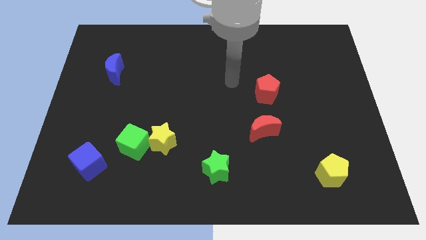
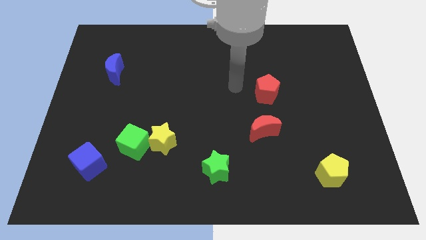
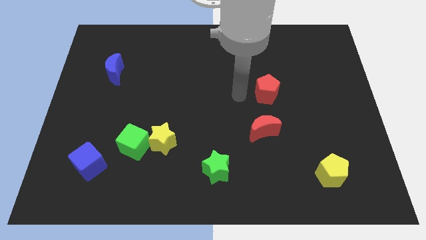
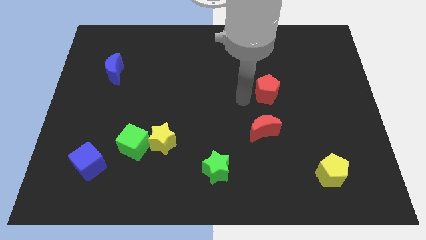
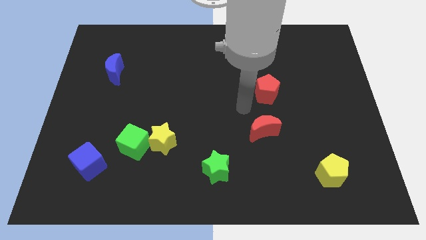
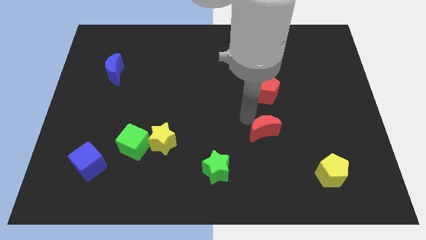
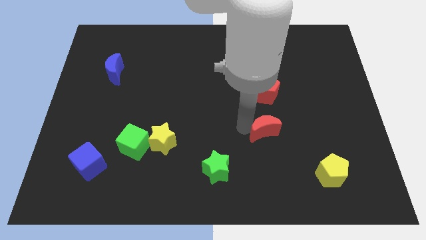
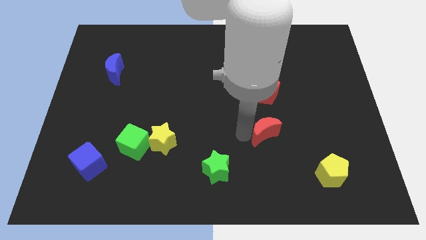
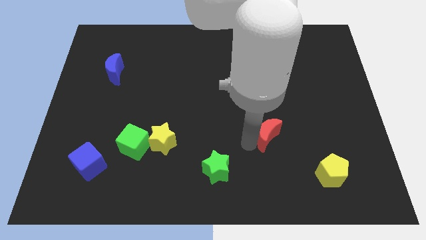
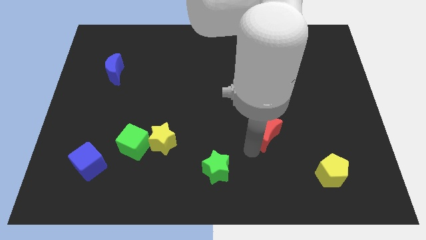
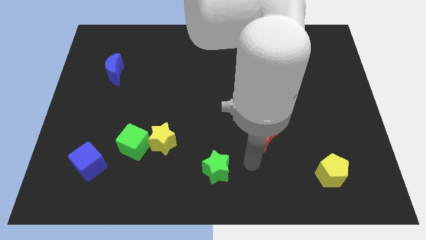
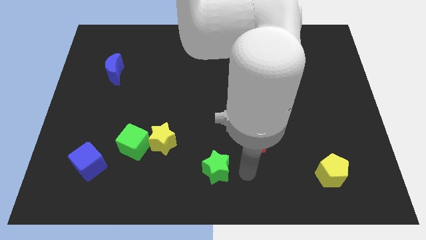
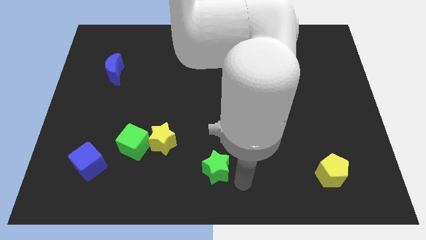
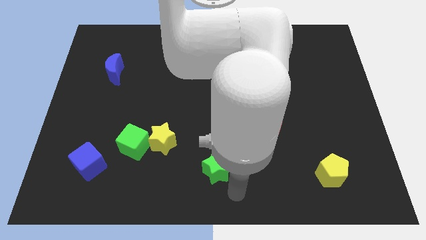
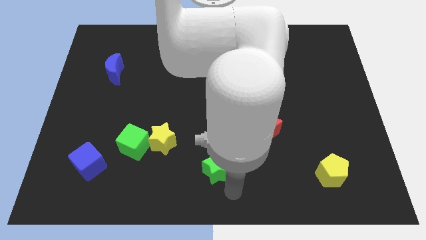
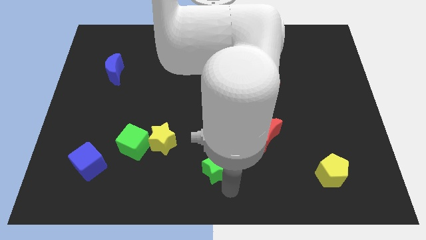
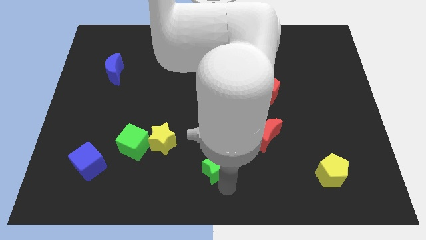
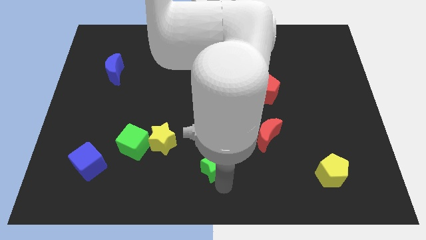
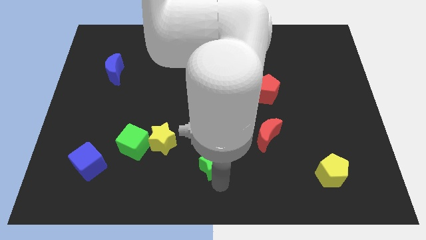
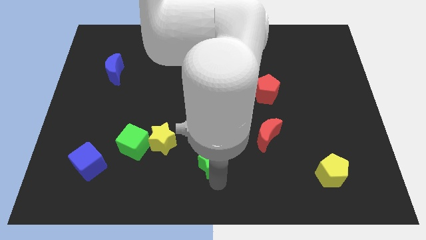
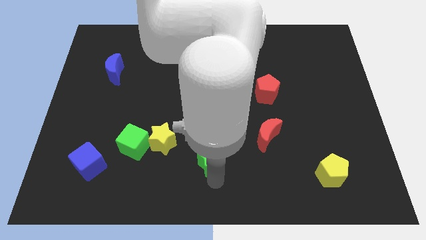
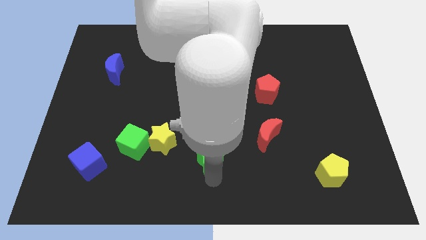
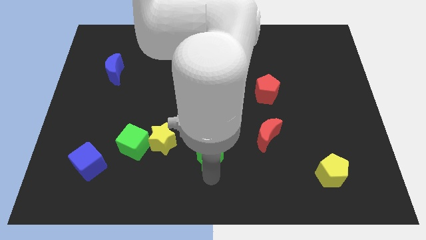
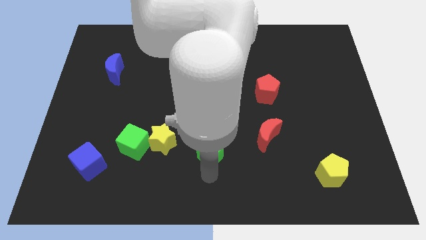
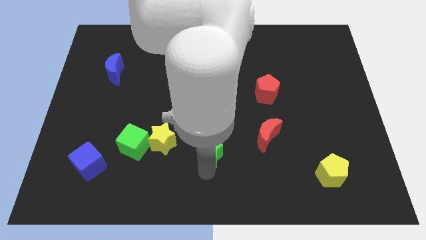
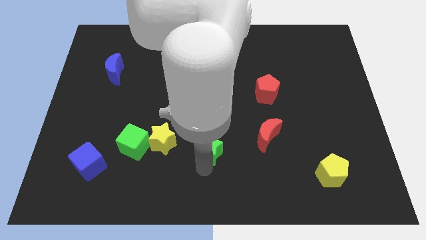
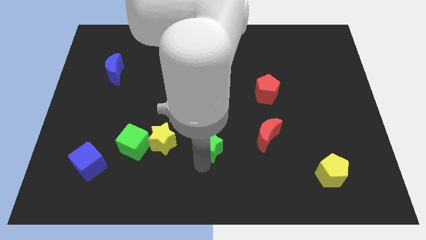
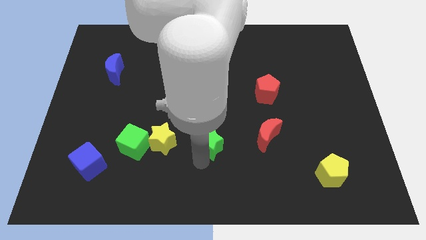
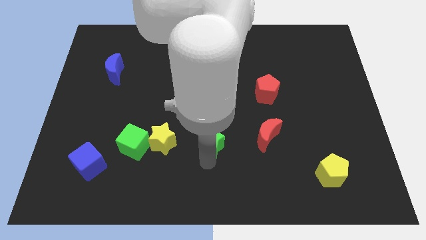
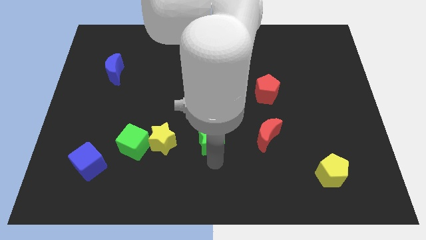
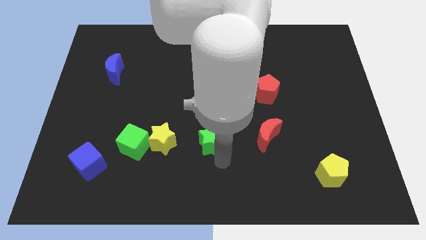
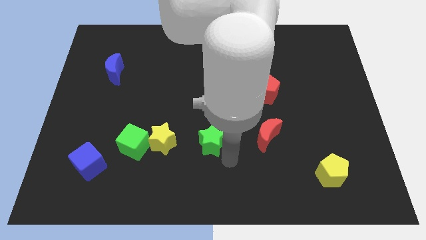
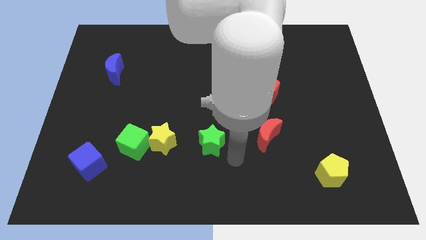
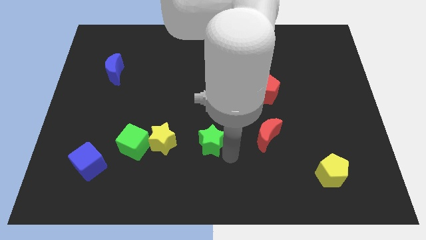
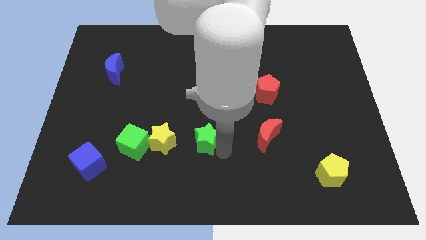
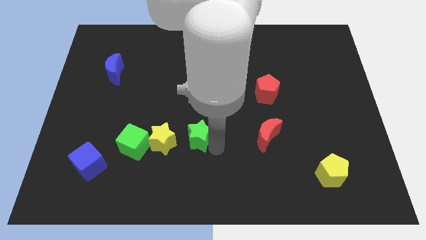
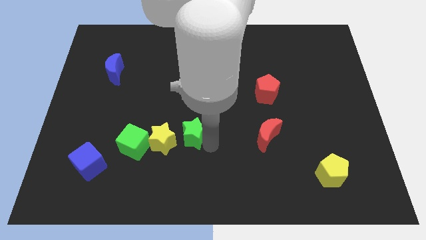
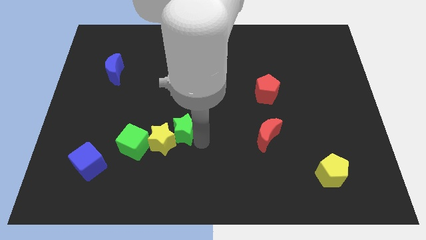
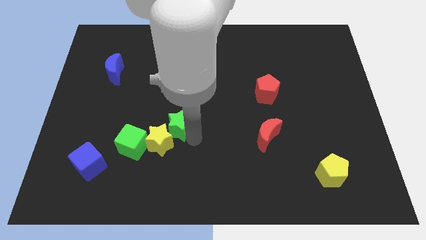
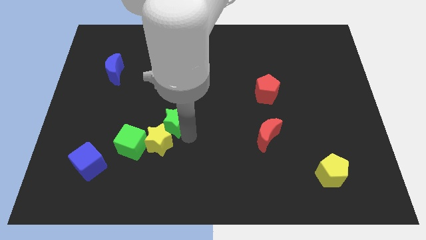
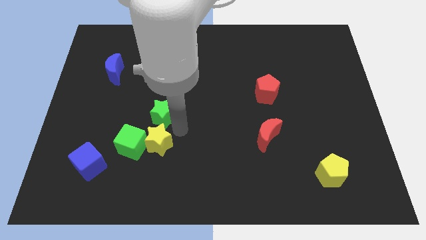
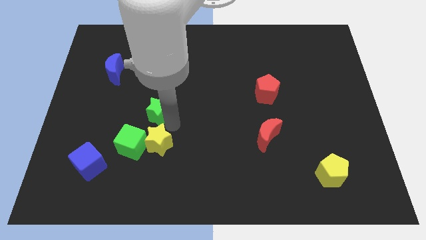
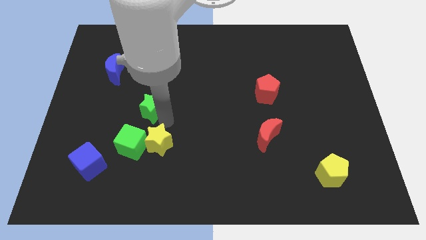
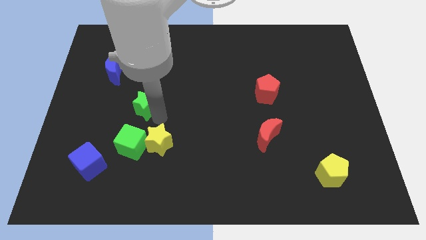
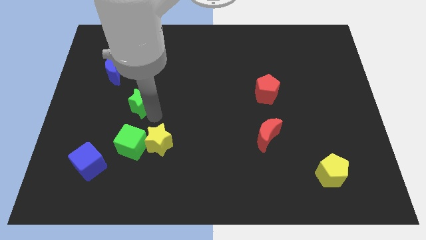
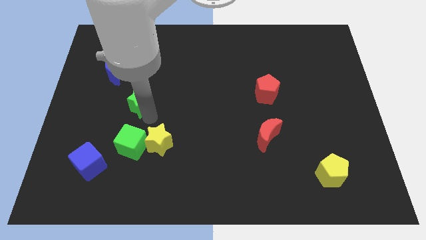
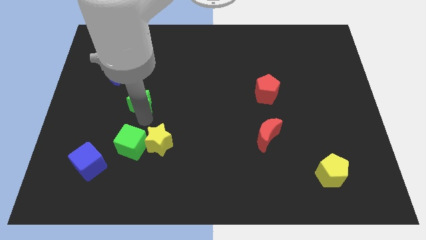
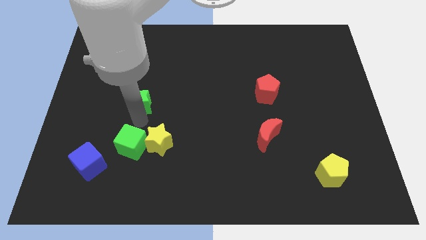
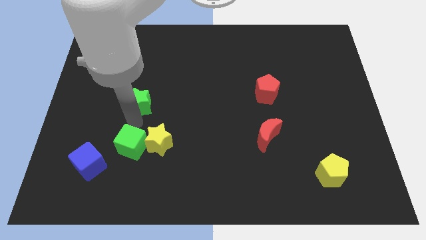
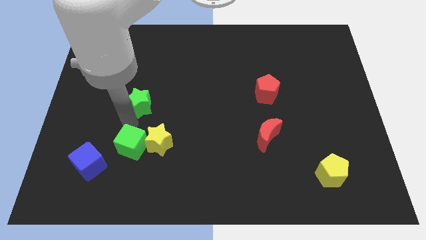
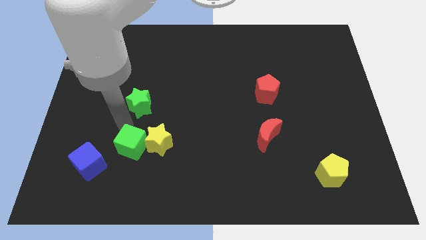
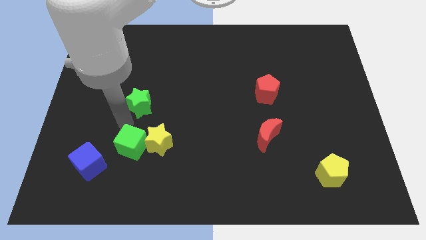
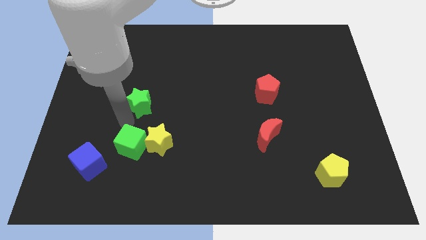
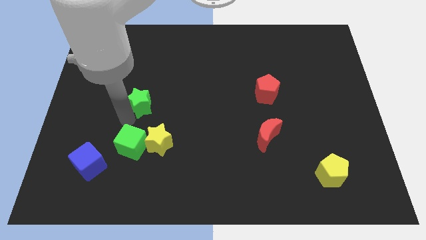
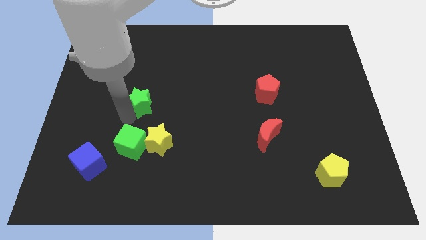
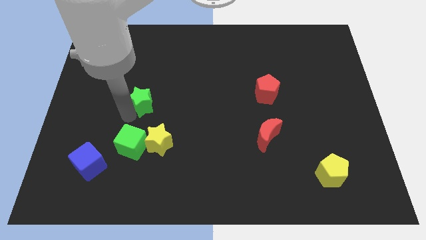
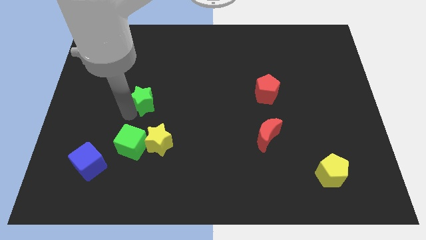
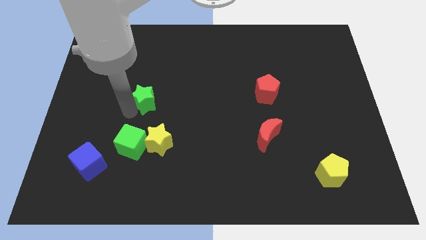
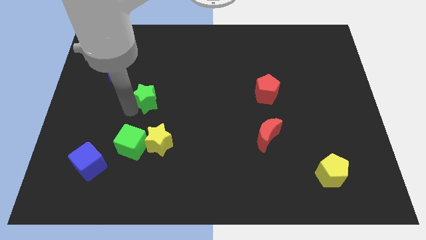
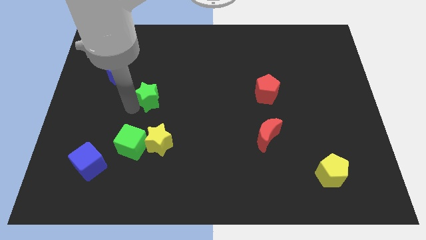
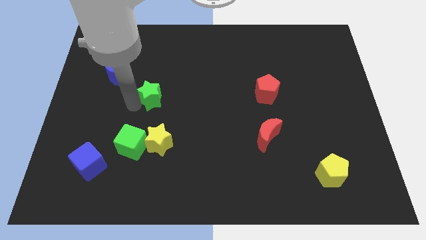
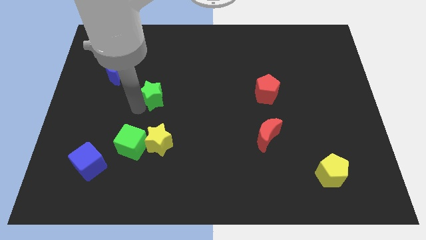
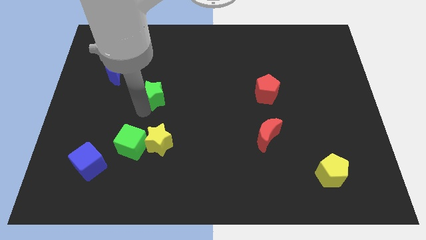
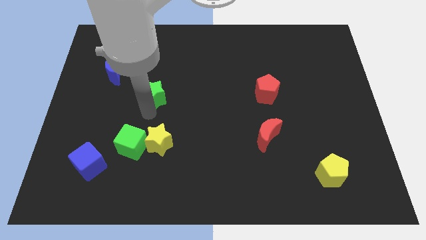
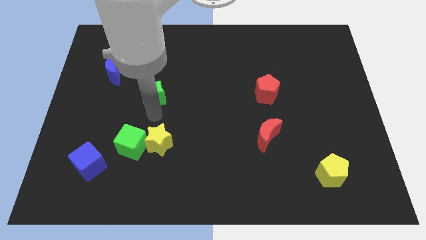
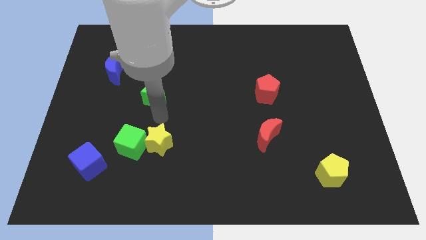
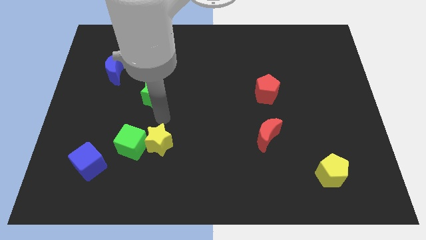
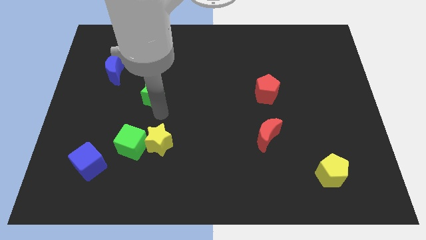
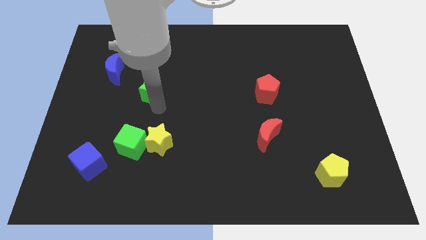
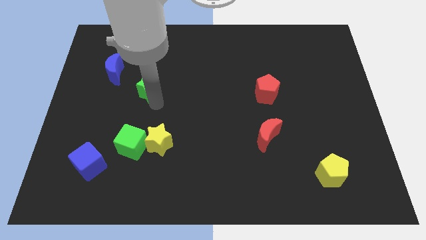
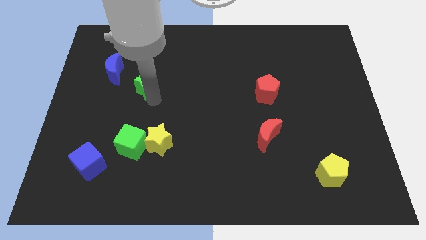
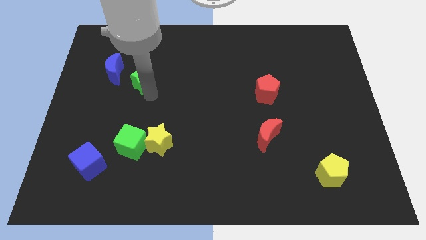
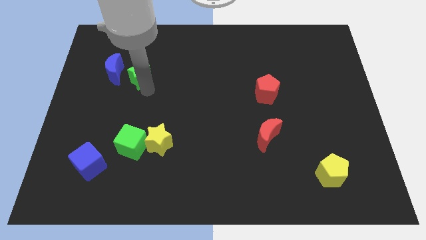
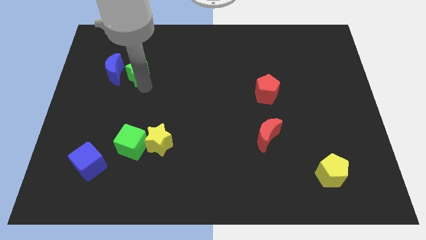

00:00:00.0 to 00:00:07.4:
put the green star to the top right side of the blue moon
